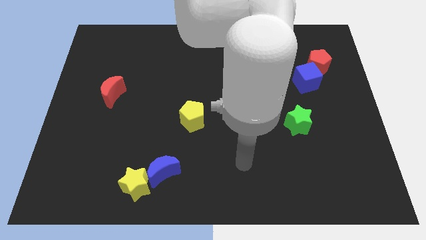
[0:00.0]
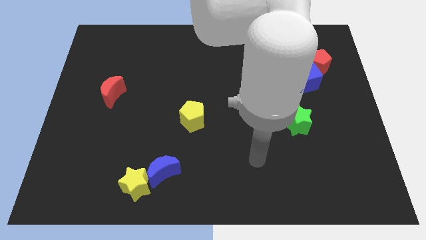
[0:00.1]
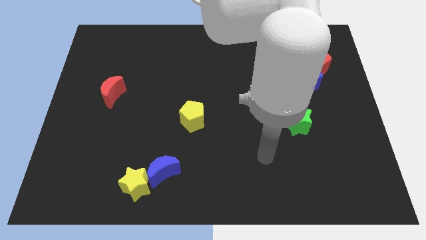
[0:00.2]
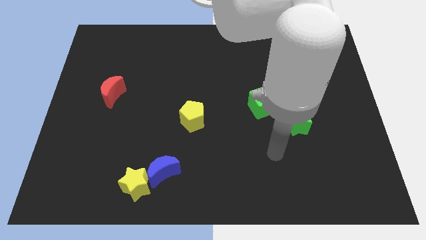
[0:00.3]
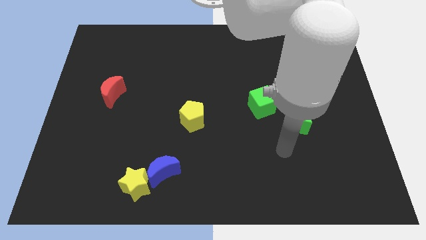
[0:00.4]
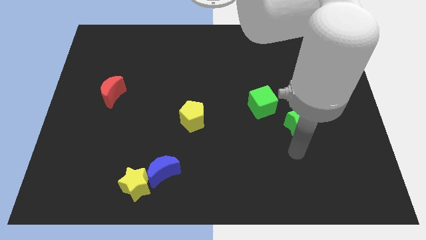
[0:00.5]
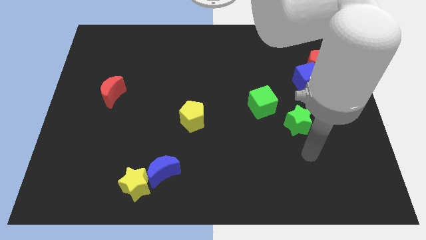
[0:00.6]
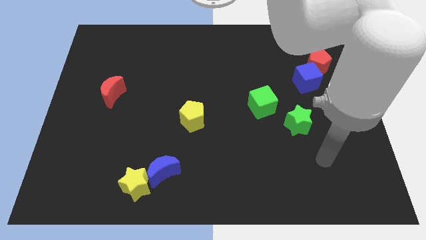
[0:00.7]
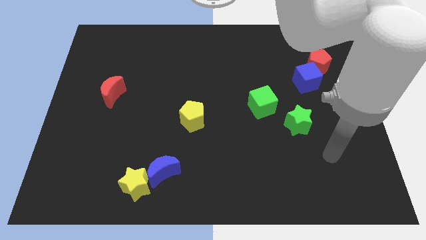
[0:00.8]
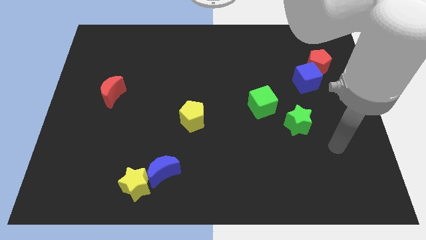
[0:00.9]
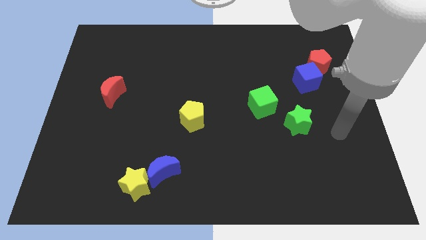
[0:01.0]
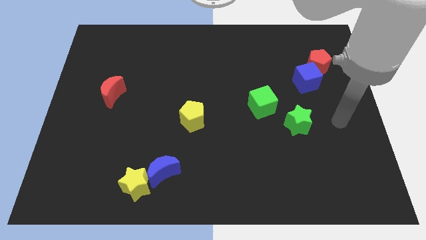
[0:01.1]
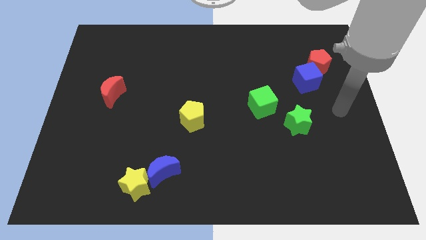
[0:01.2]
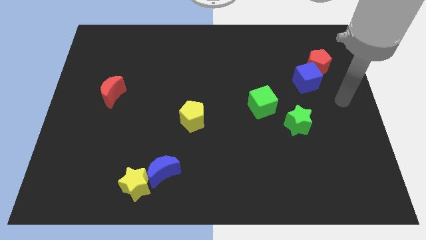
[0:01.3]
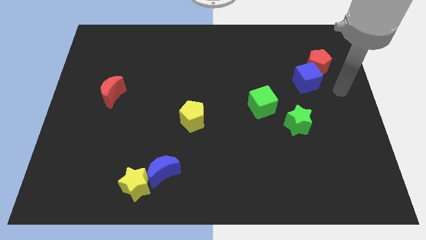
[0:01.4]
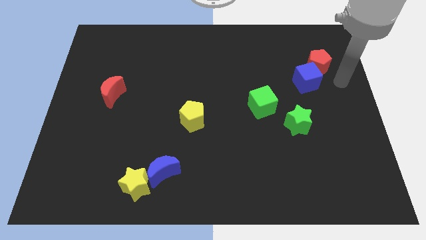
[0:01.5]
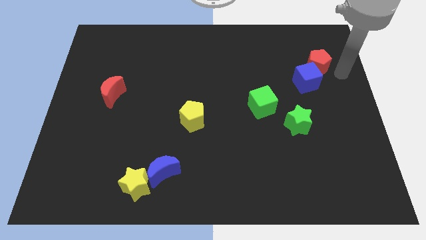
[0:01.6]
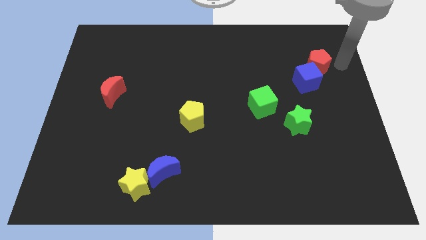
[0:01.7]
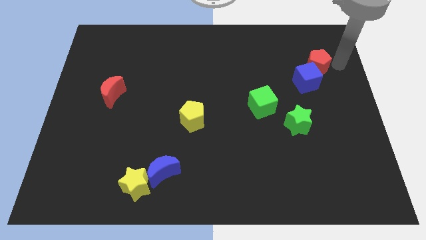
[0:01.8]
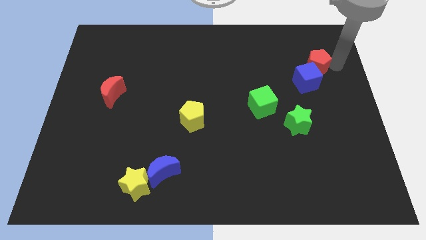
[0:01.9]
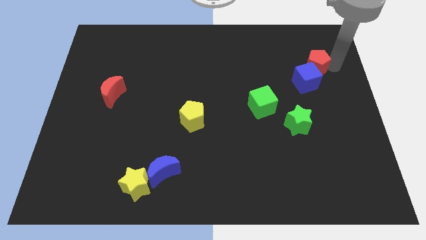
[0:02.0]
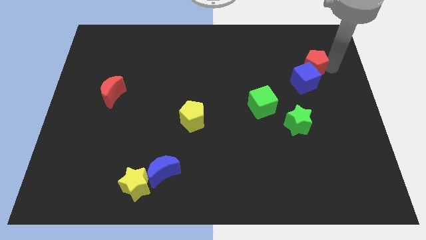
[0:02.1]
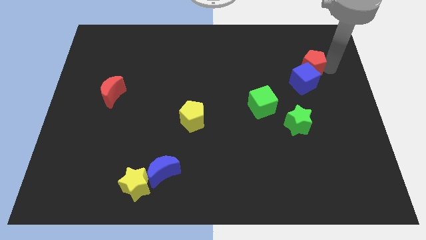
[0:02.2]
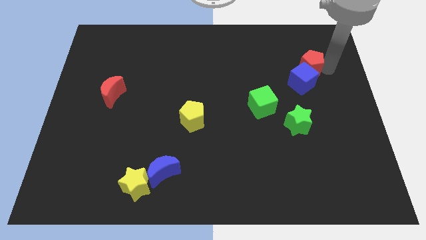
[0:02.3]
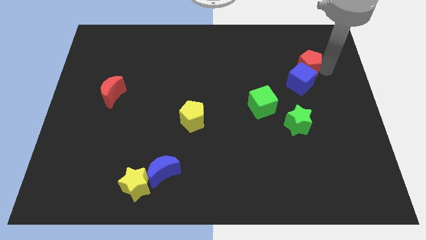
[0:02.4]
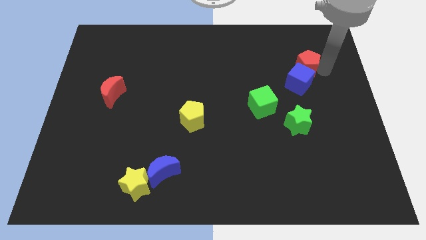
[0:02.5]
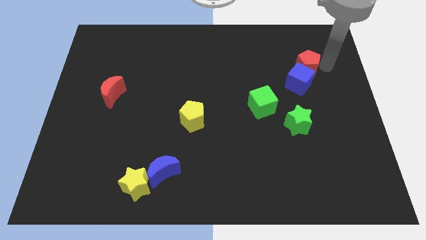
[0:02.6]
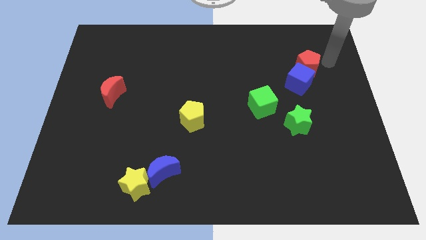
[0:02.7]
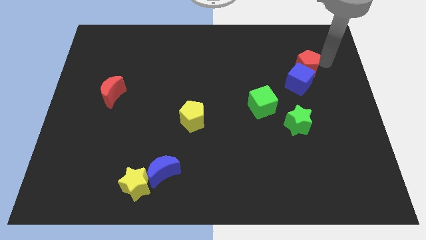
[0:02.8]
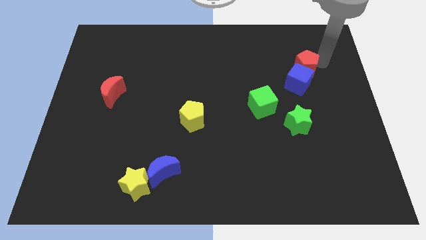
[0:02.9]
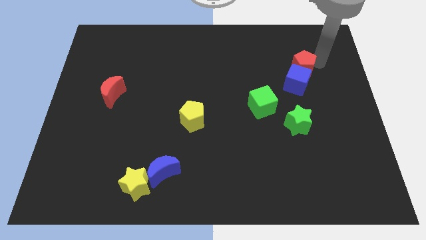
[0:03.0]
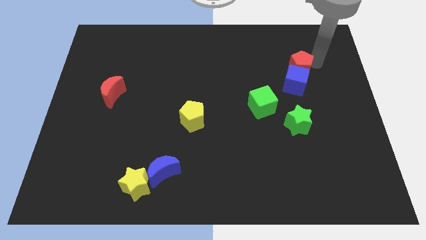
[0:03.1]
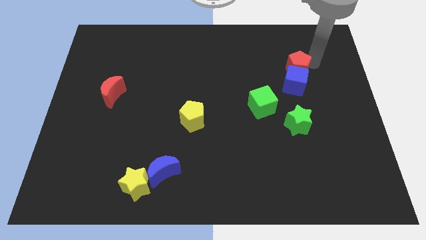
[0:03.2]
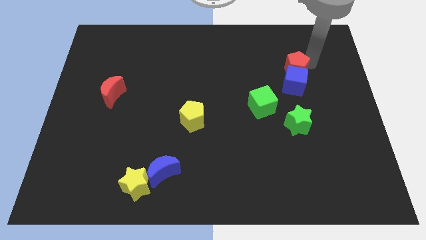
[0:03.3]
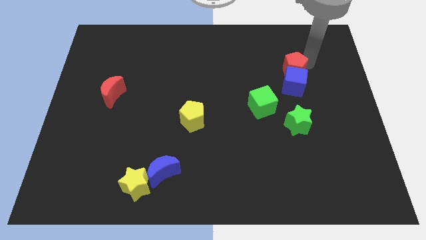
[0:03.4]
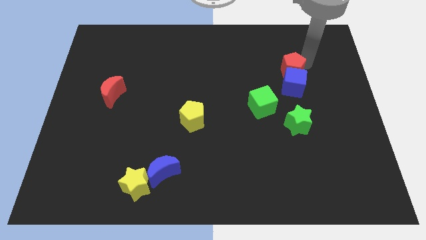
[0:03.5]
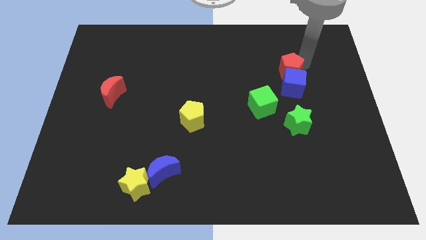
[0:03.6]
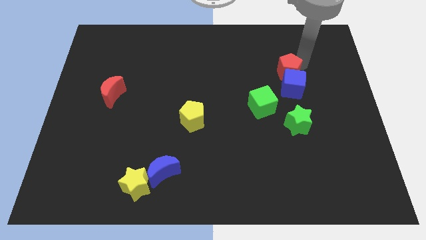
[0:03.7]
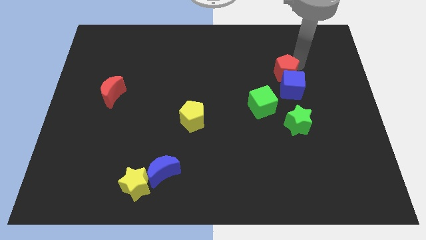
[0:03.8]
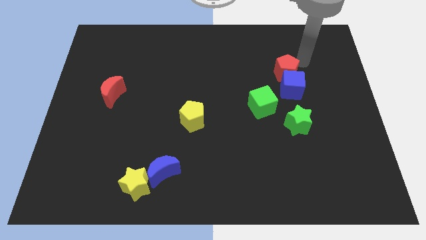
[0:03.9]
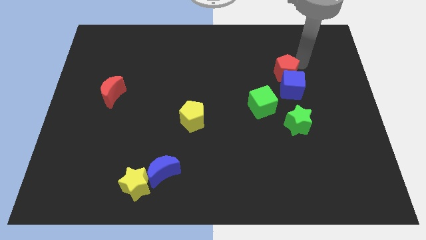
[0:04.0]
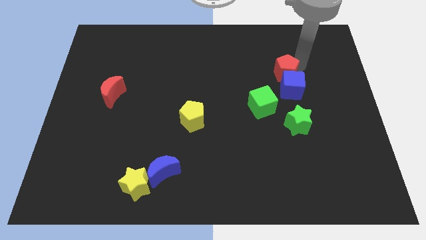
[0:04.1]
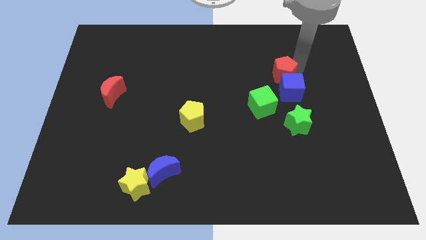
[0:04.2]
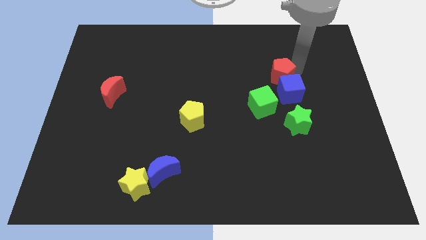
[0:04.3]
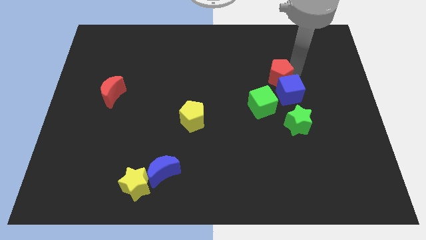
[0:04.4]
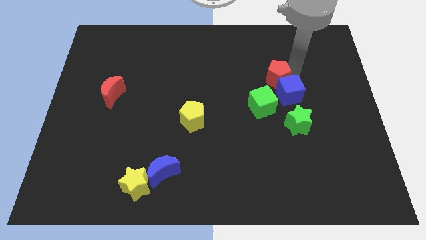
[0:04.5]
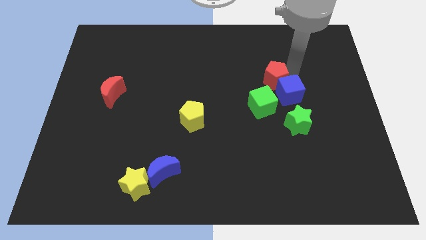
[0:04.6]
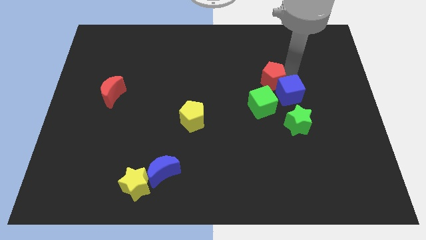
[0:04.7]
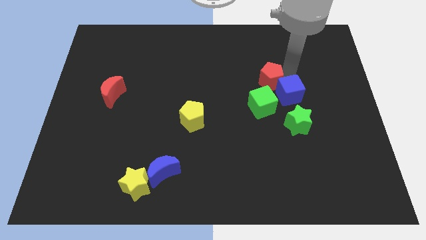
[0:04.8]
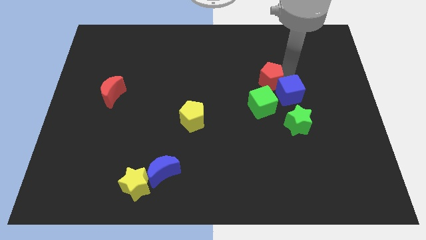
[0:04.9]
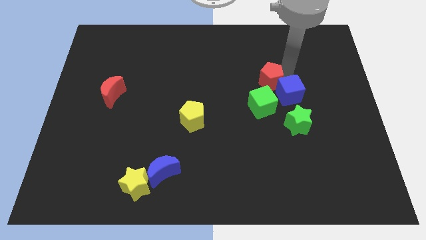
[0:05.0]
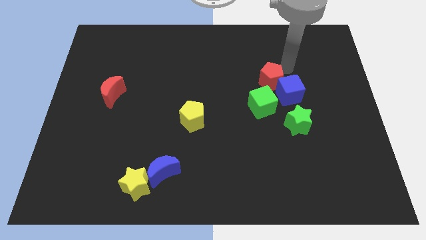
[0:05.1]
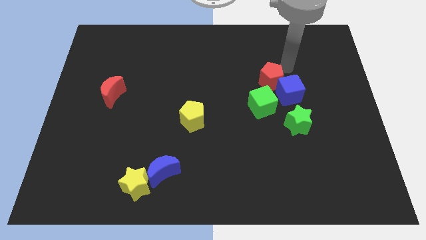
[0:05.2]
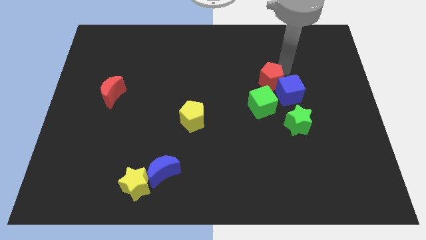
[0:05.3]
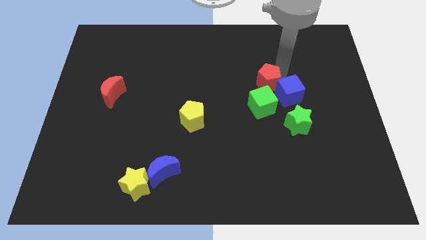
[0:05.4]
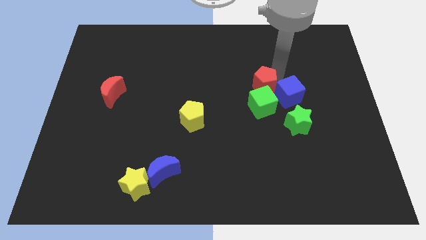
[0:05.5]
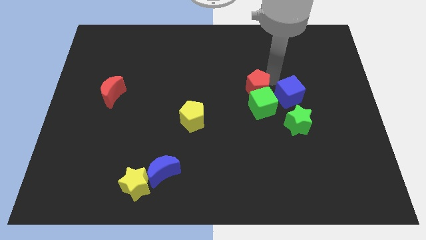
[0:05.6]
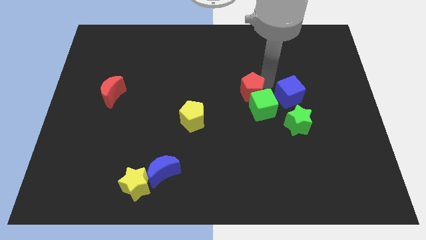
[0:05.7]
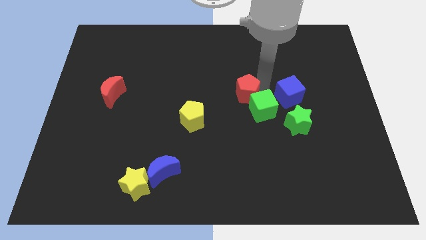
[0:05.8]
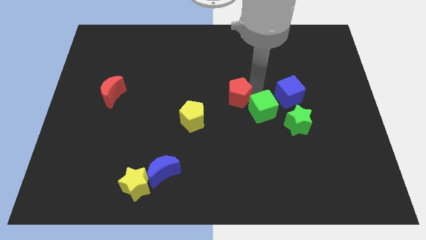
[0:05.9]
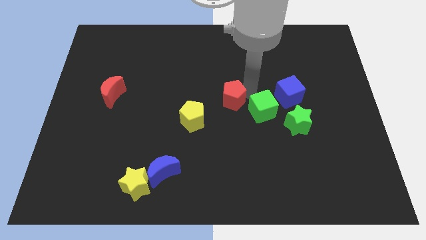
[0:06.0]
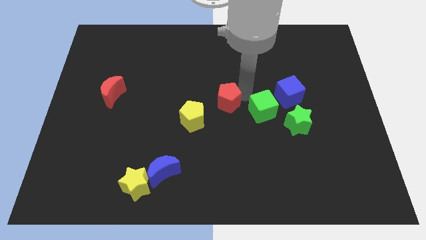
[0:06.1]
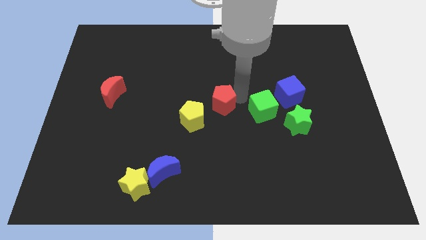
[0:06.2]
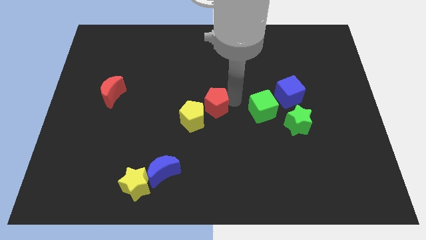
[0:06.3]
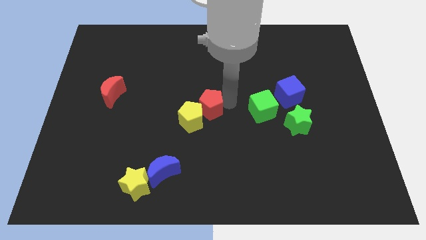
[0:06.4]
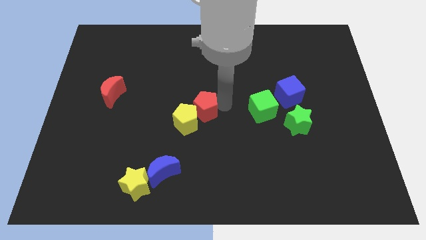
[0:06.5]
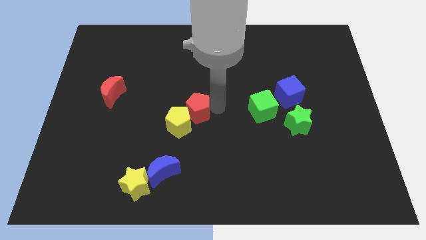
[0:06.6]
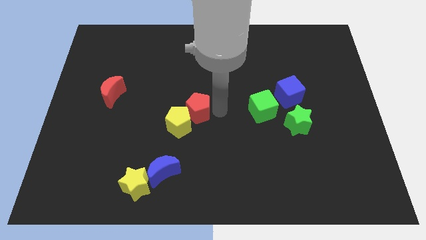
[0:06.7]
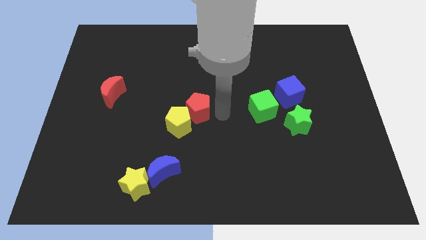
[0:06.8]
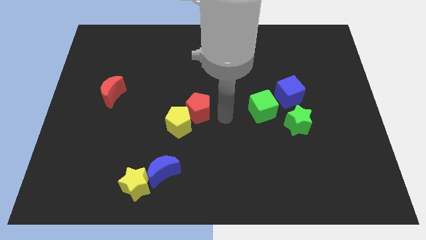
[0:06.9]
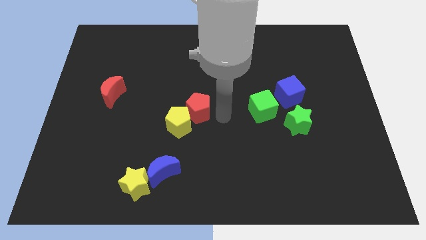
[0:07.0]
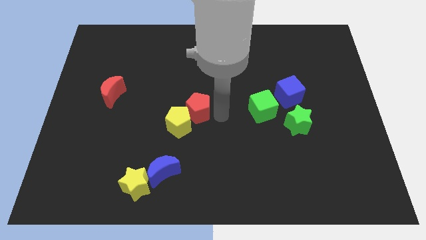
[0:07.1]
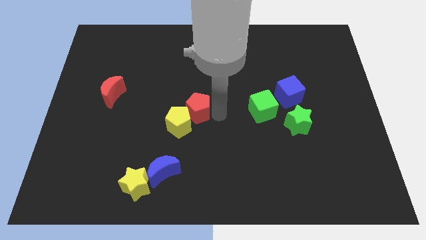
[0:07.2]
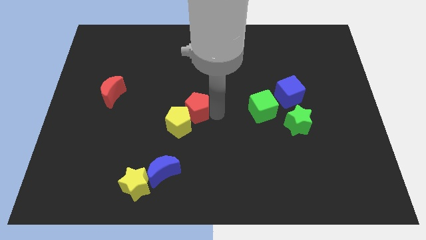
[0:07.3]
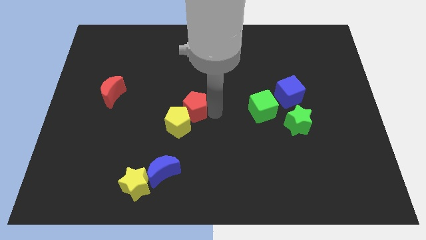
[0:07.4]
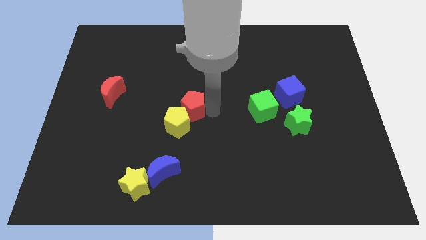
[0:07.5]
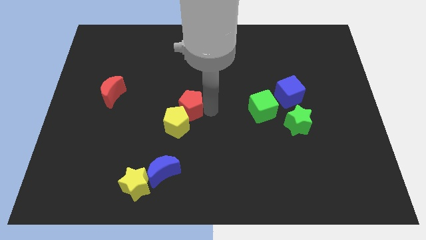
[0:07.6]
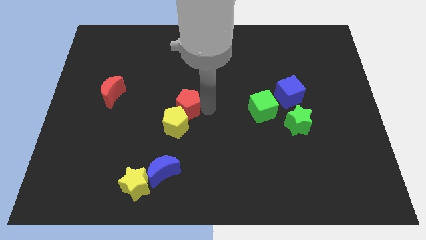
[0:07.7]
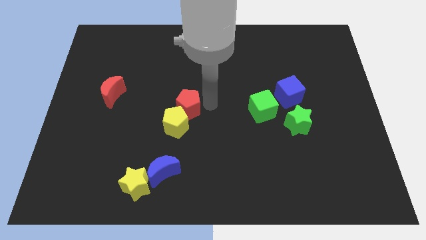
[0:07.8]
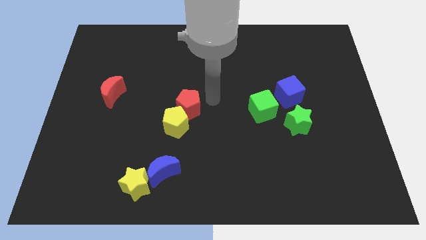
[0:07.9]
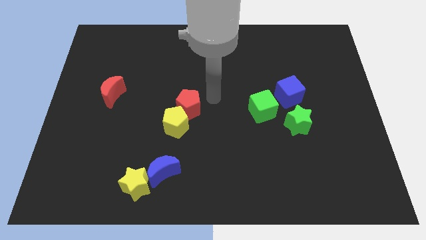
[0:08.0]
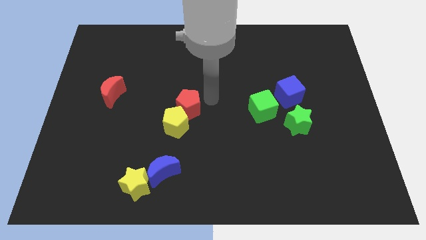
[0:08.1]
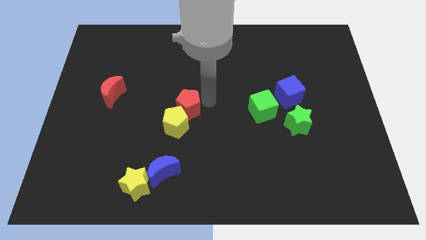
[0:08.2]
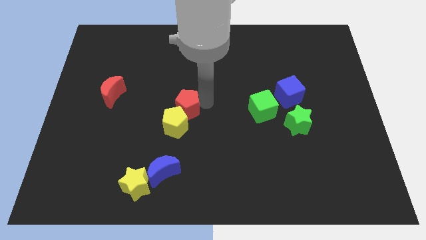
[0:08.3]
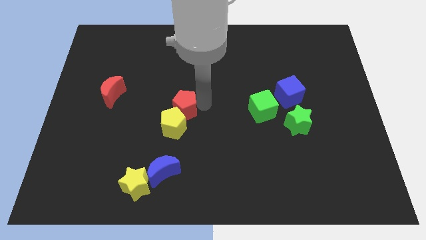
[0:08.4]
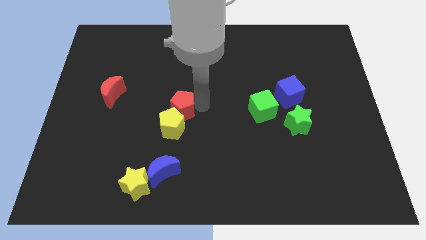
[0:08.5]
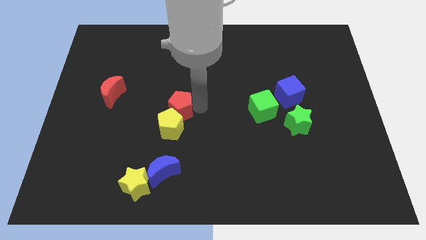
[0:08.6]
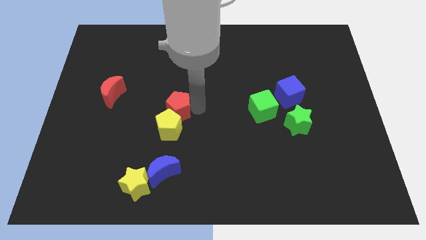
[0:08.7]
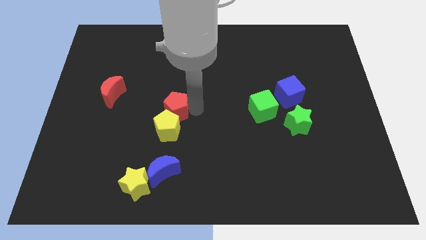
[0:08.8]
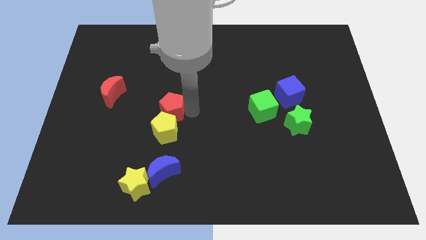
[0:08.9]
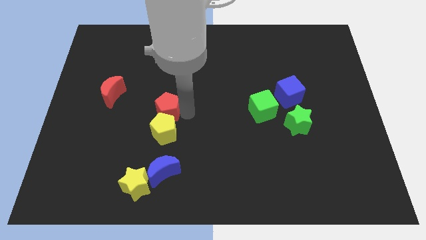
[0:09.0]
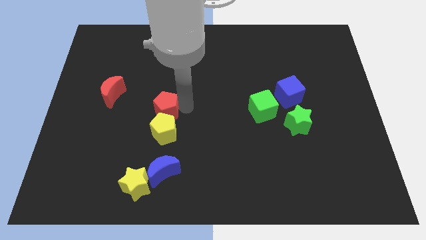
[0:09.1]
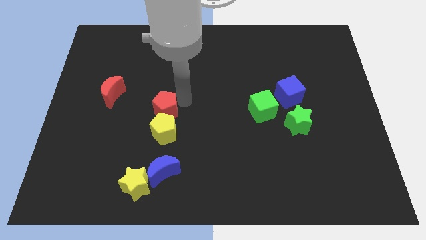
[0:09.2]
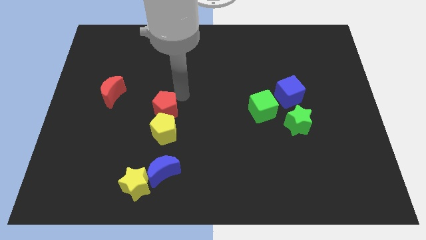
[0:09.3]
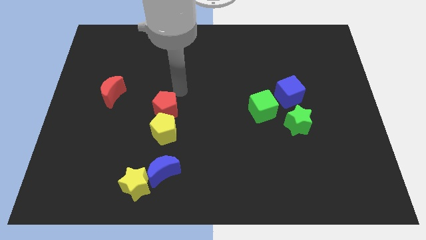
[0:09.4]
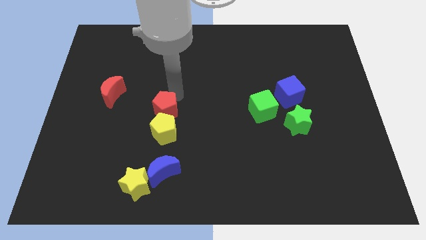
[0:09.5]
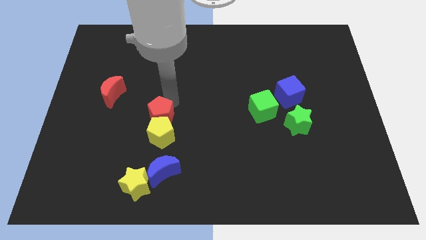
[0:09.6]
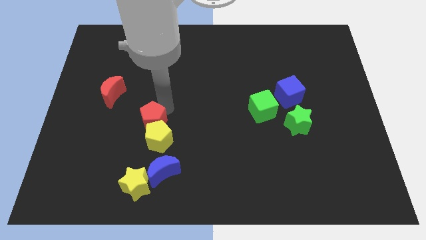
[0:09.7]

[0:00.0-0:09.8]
slide the red pentagon to the top of the yellow star
